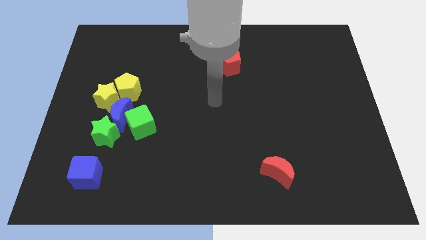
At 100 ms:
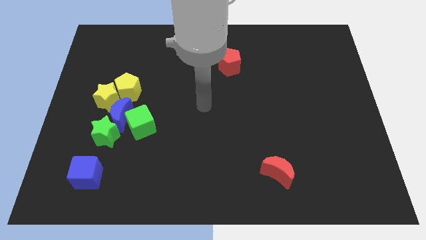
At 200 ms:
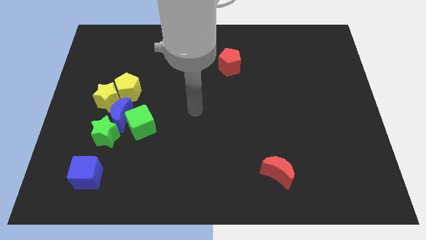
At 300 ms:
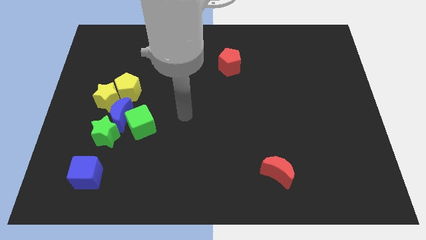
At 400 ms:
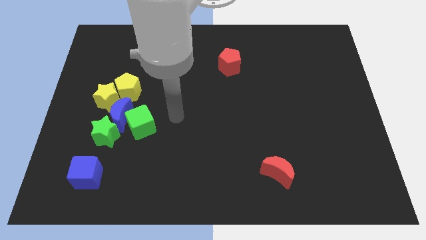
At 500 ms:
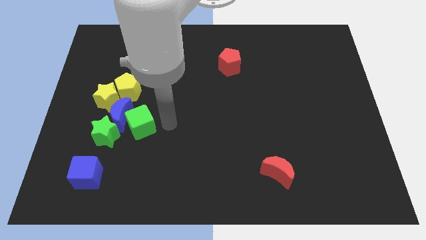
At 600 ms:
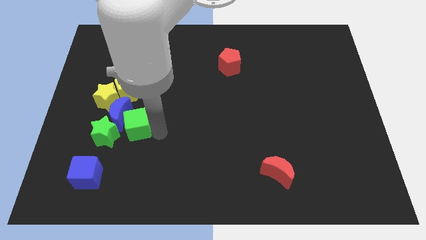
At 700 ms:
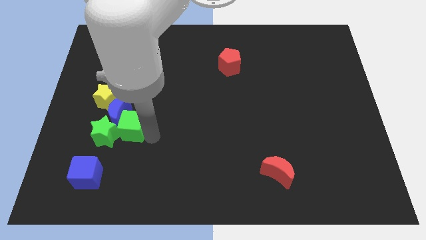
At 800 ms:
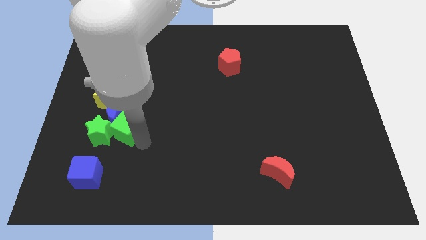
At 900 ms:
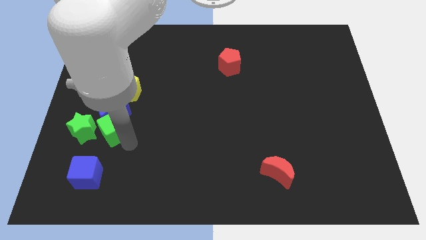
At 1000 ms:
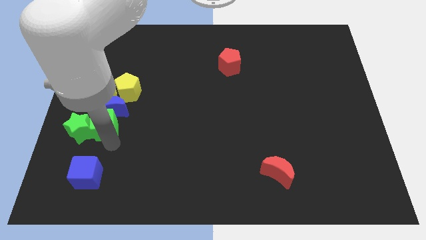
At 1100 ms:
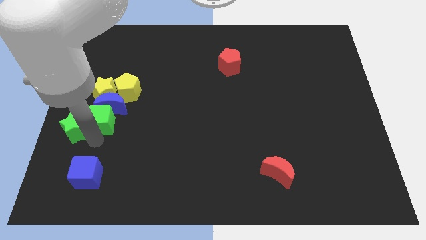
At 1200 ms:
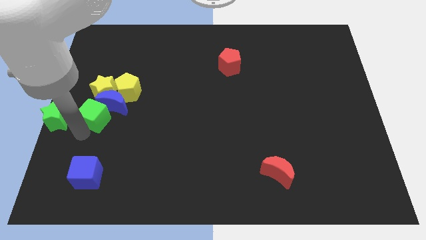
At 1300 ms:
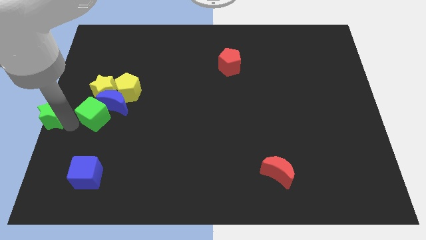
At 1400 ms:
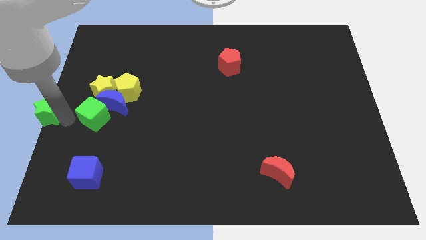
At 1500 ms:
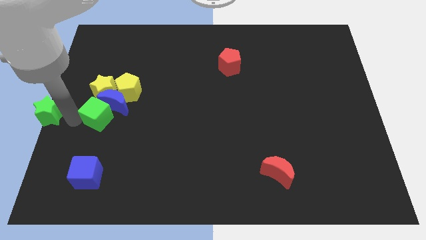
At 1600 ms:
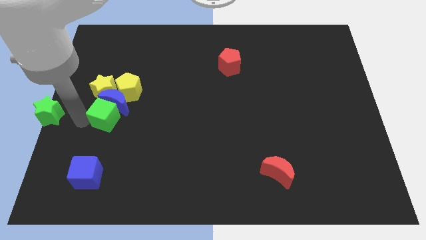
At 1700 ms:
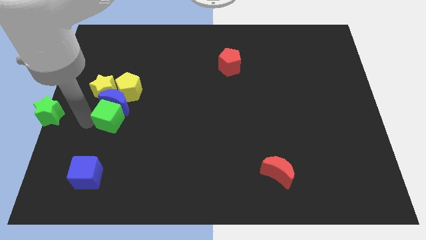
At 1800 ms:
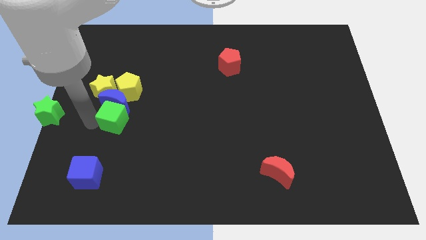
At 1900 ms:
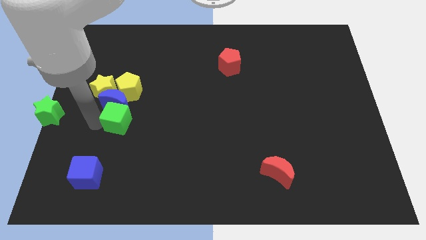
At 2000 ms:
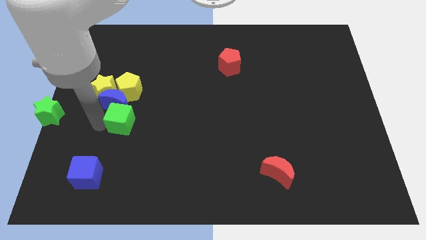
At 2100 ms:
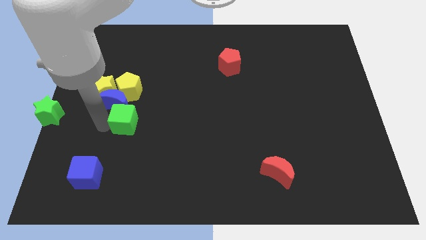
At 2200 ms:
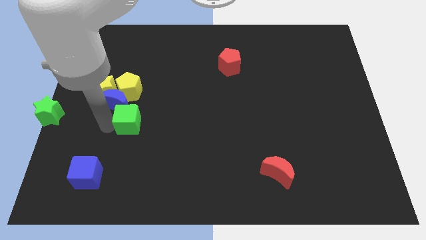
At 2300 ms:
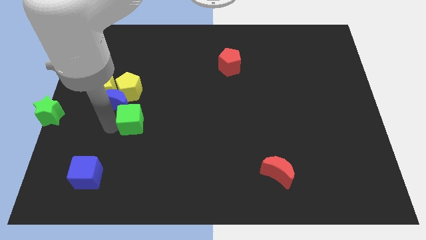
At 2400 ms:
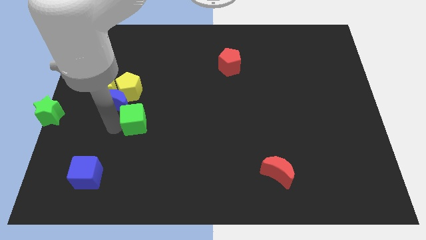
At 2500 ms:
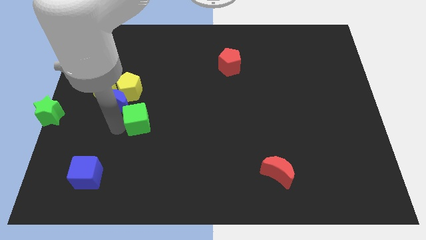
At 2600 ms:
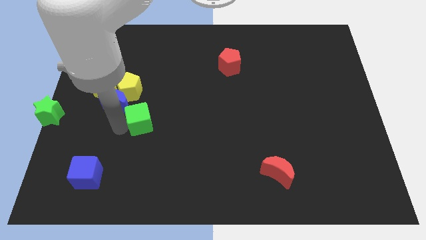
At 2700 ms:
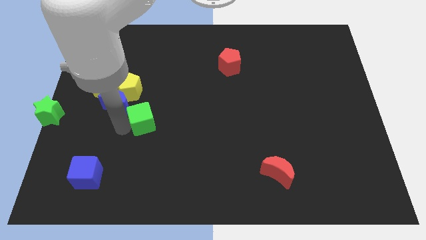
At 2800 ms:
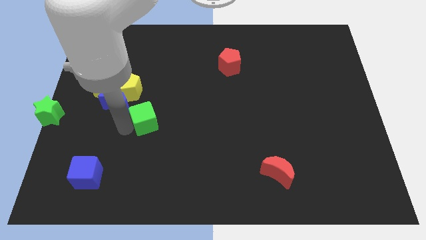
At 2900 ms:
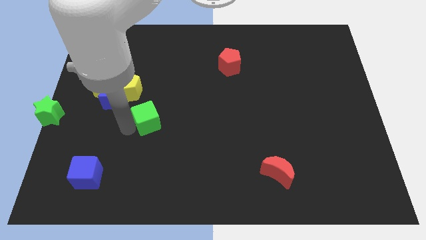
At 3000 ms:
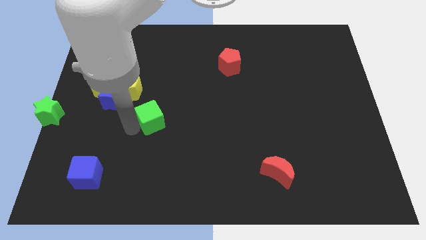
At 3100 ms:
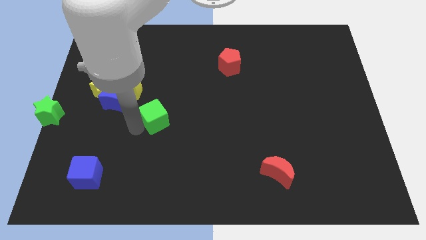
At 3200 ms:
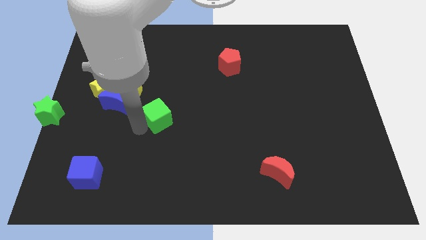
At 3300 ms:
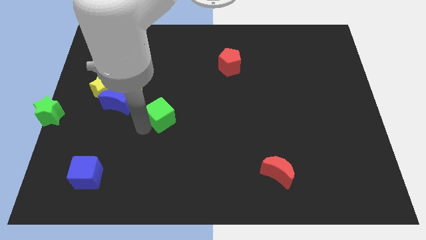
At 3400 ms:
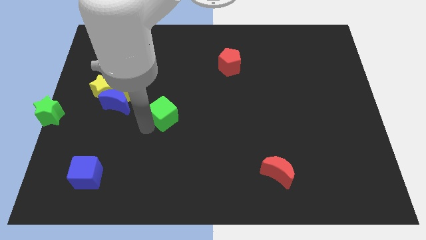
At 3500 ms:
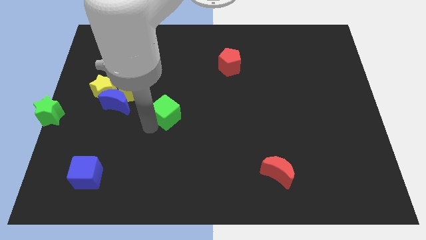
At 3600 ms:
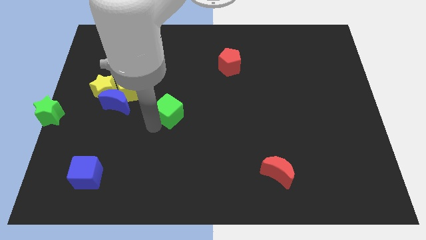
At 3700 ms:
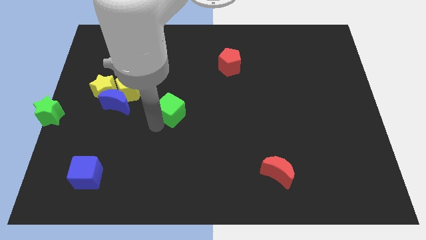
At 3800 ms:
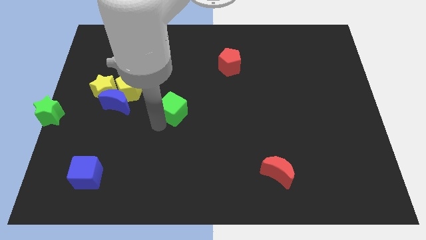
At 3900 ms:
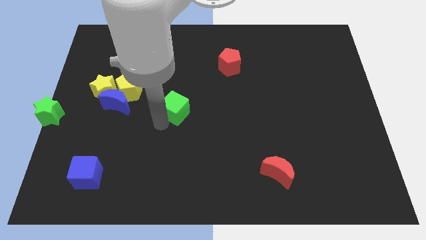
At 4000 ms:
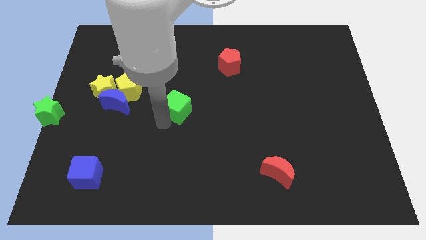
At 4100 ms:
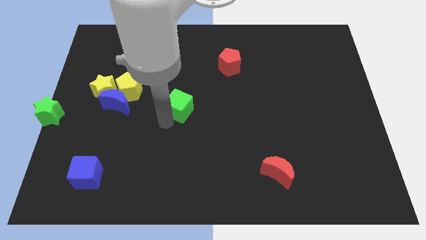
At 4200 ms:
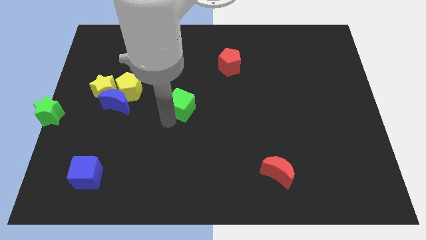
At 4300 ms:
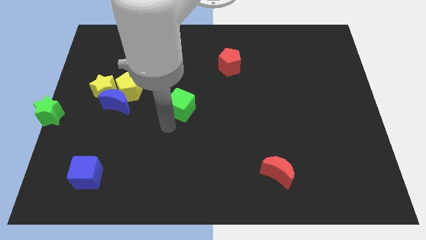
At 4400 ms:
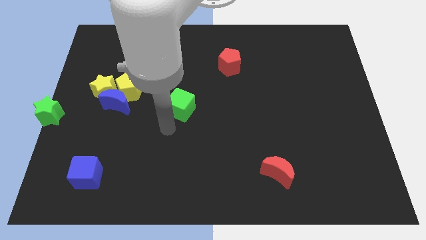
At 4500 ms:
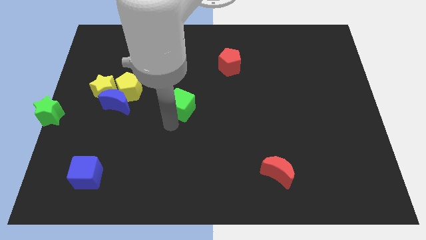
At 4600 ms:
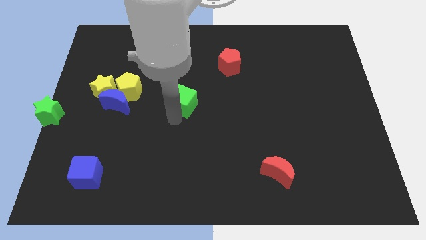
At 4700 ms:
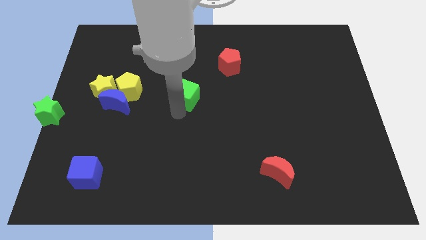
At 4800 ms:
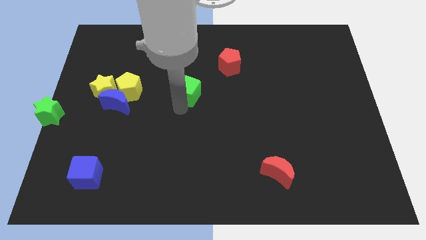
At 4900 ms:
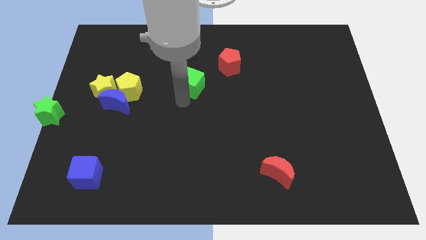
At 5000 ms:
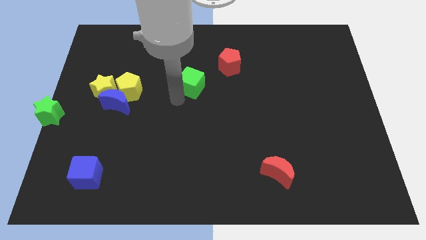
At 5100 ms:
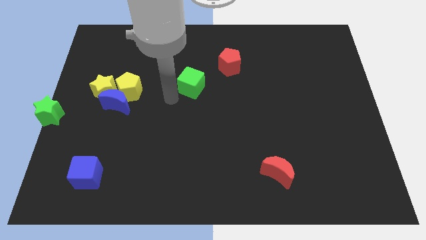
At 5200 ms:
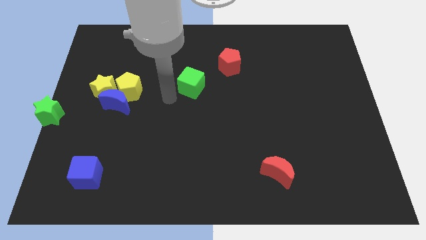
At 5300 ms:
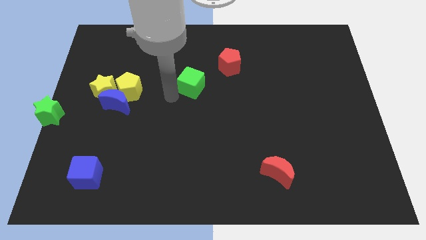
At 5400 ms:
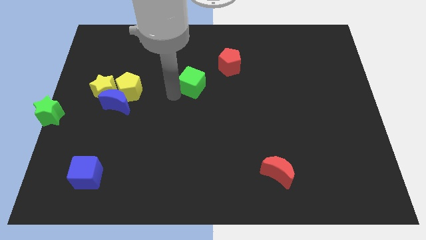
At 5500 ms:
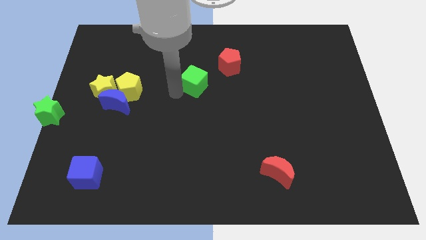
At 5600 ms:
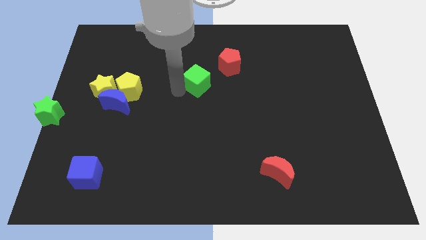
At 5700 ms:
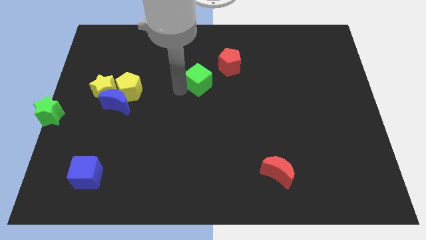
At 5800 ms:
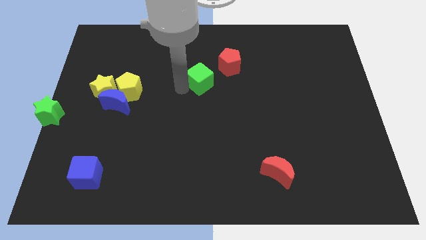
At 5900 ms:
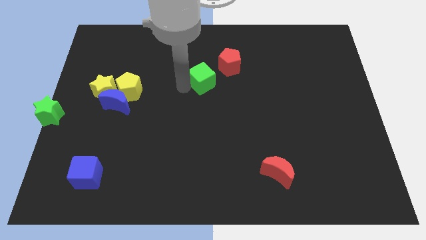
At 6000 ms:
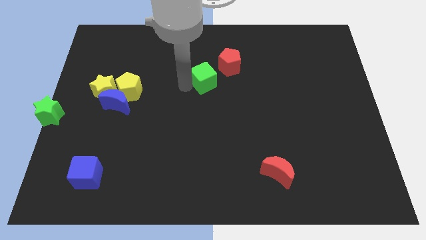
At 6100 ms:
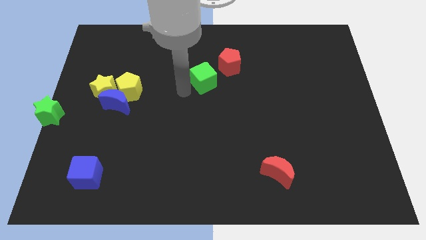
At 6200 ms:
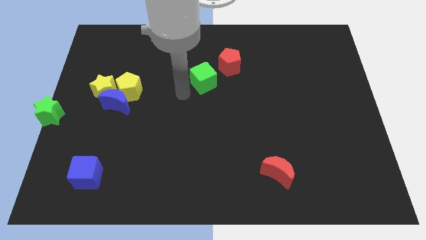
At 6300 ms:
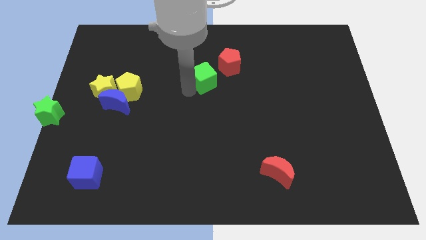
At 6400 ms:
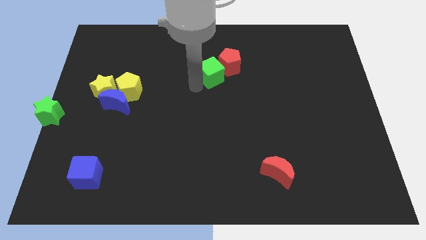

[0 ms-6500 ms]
move the green cube towards the red pentagon
